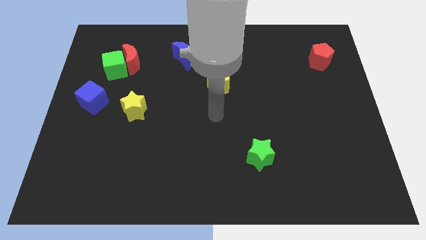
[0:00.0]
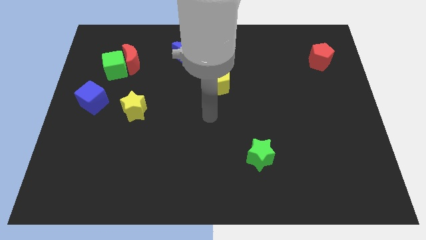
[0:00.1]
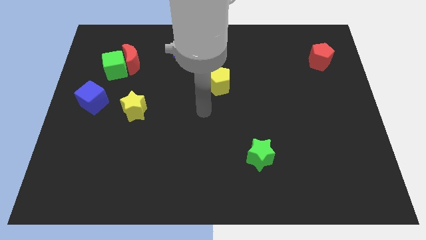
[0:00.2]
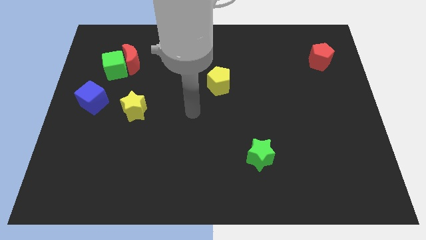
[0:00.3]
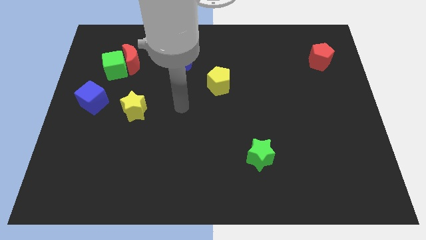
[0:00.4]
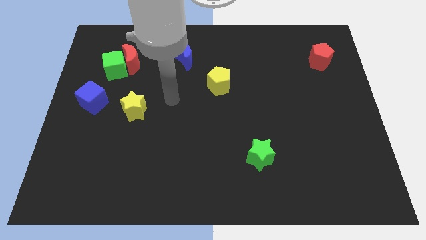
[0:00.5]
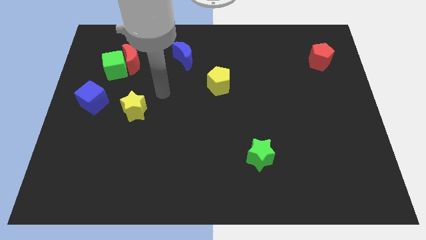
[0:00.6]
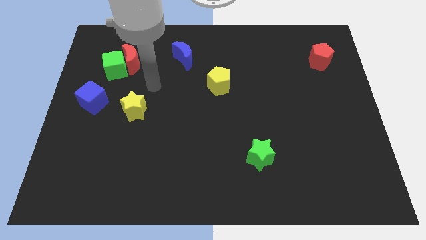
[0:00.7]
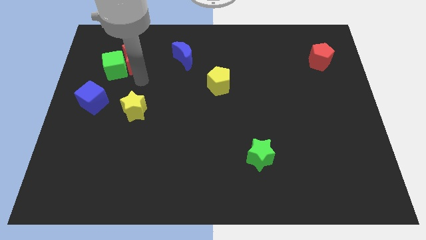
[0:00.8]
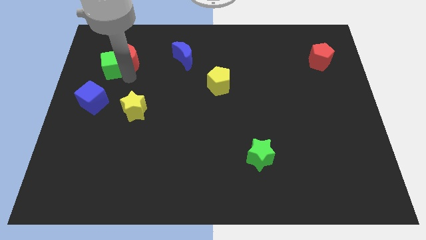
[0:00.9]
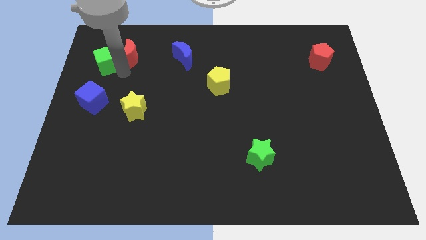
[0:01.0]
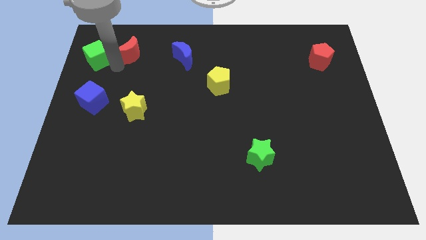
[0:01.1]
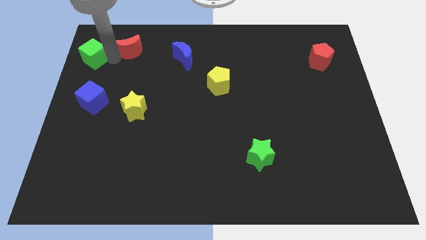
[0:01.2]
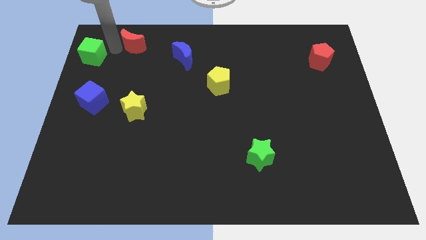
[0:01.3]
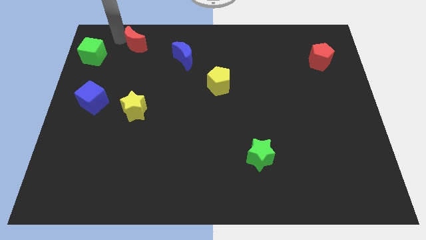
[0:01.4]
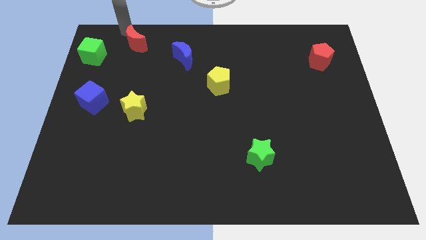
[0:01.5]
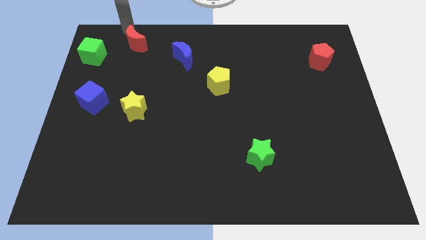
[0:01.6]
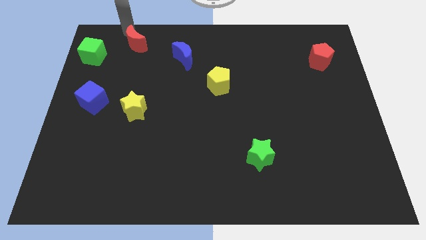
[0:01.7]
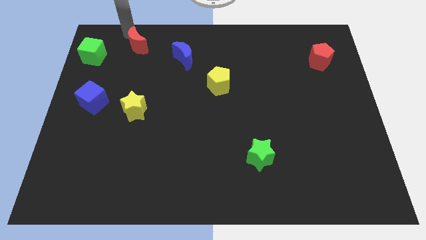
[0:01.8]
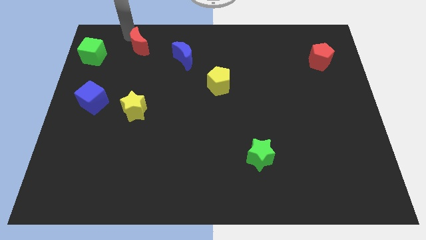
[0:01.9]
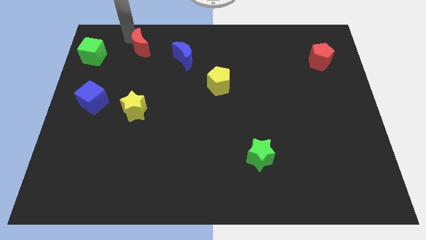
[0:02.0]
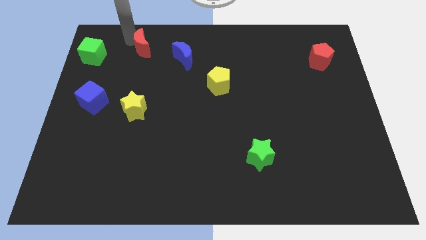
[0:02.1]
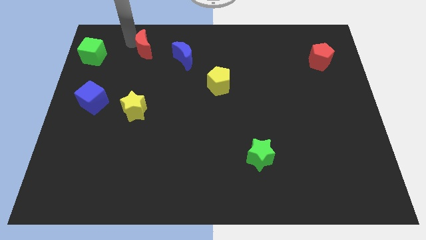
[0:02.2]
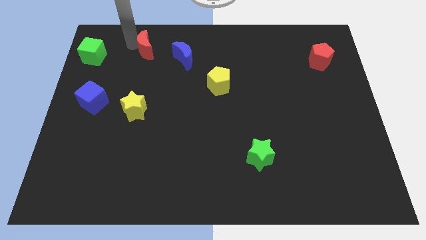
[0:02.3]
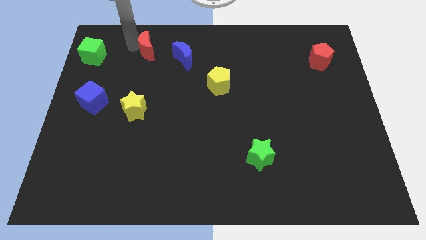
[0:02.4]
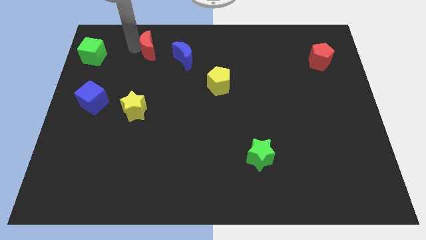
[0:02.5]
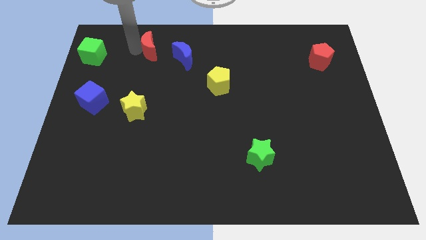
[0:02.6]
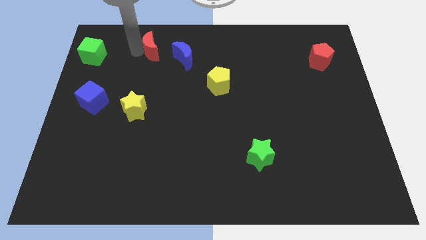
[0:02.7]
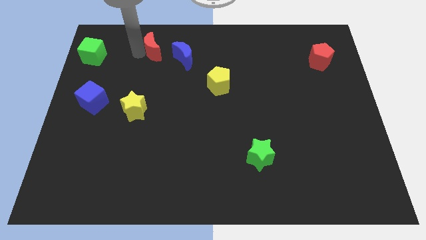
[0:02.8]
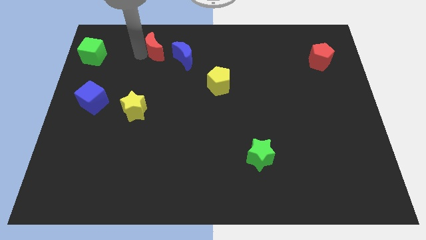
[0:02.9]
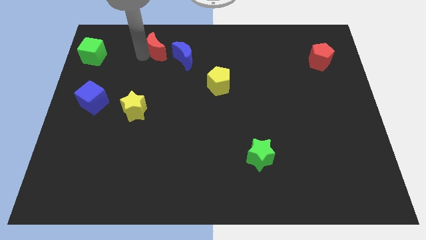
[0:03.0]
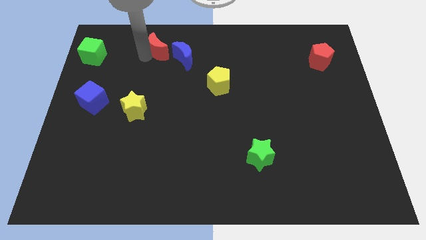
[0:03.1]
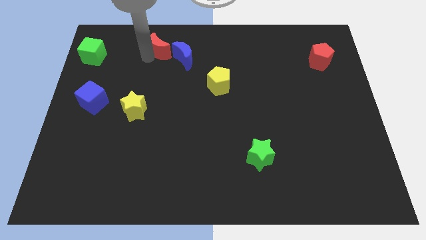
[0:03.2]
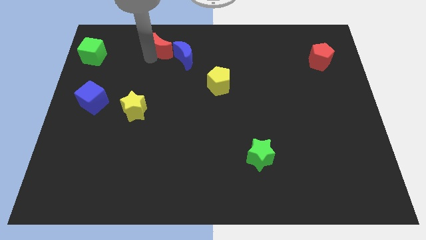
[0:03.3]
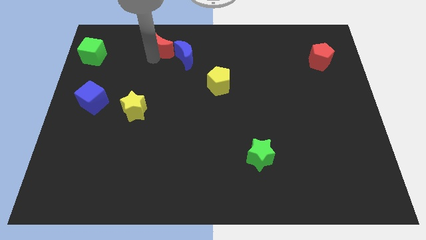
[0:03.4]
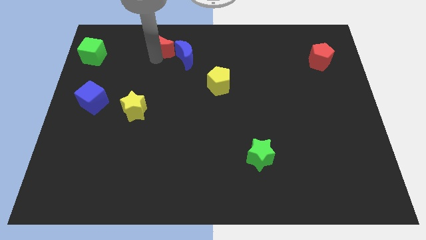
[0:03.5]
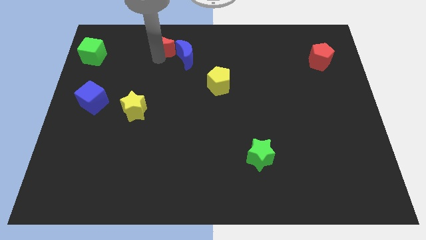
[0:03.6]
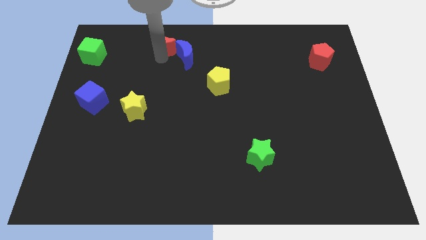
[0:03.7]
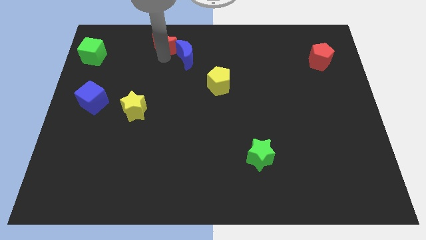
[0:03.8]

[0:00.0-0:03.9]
push the red moon a little bit right

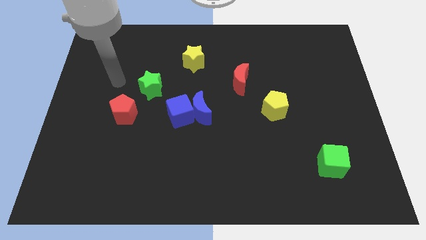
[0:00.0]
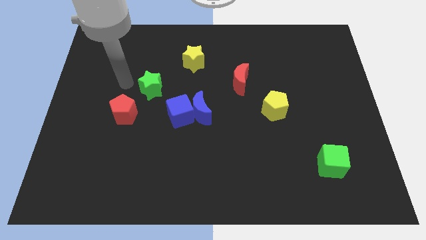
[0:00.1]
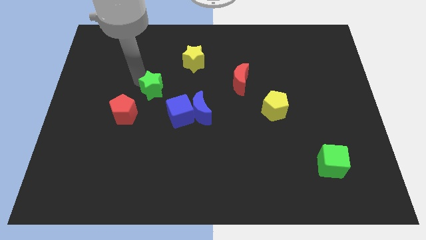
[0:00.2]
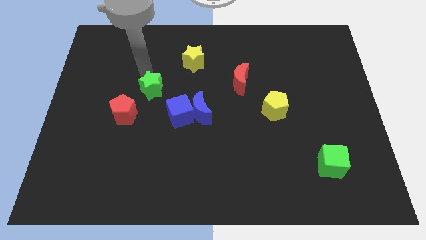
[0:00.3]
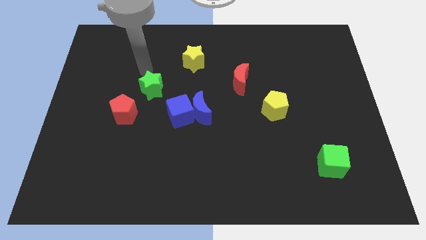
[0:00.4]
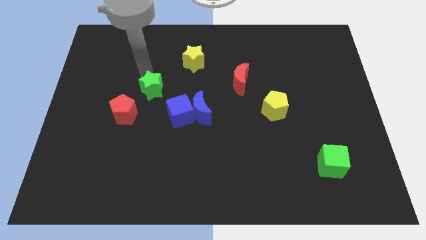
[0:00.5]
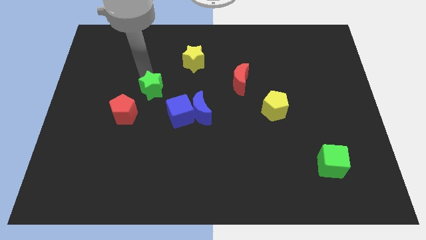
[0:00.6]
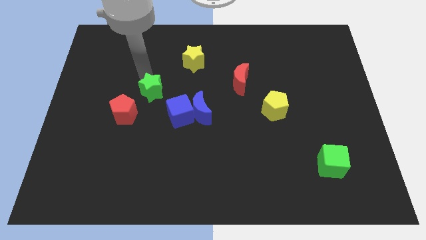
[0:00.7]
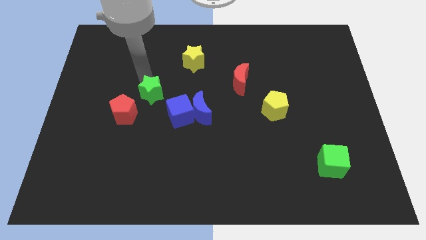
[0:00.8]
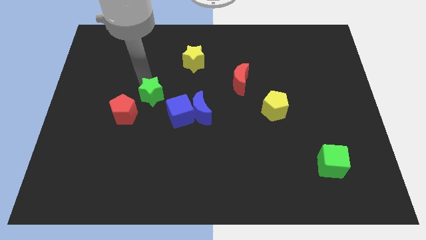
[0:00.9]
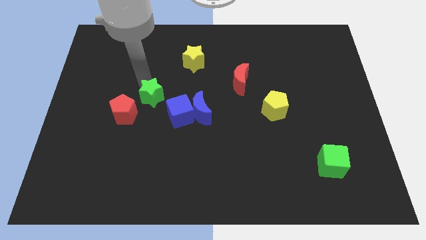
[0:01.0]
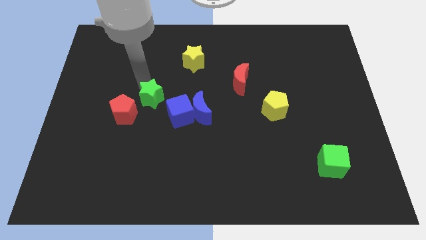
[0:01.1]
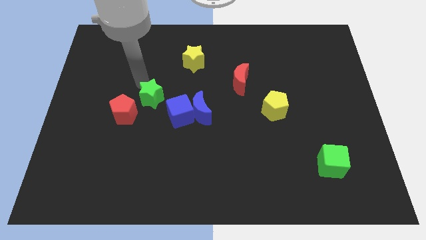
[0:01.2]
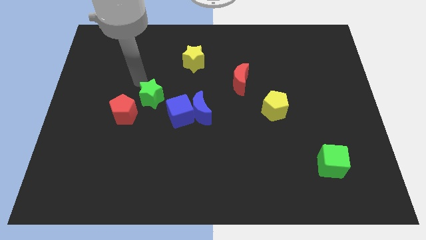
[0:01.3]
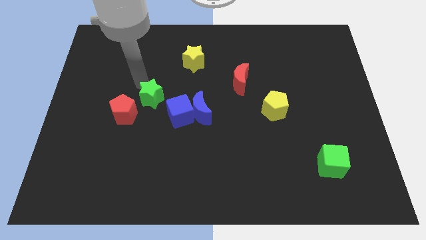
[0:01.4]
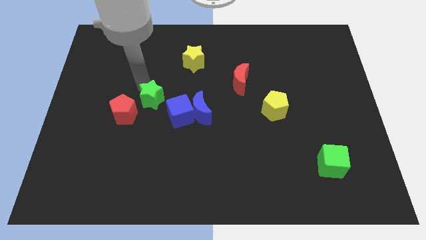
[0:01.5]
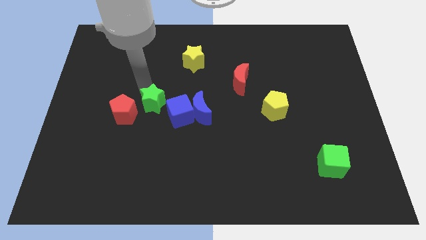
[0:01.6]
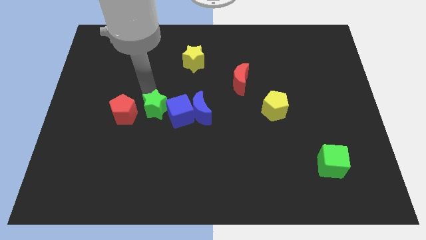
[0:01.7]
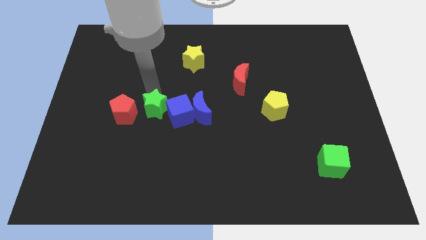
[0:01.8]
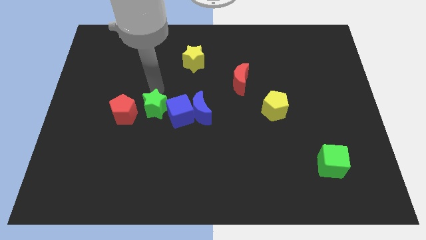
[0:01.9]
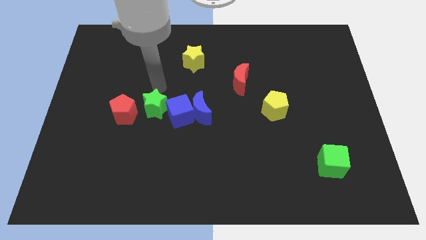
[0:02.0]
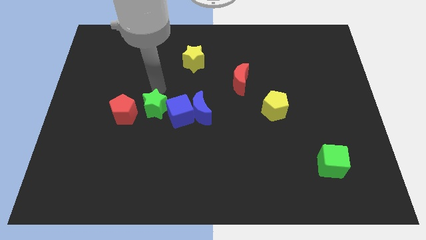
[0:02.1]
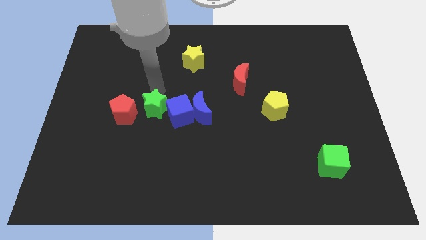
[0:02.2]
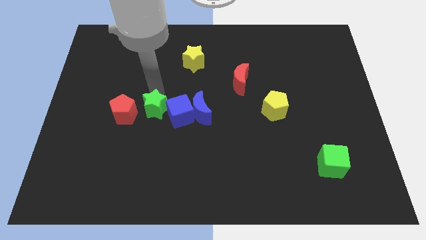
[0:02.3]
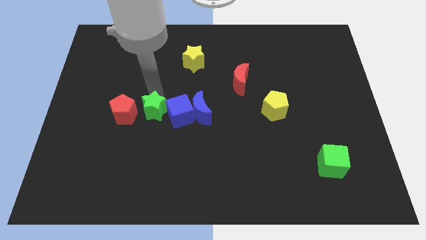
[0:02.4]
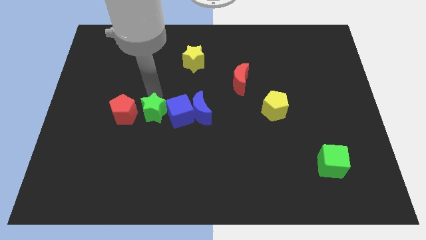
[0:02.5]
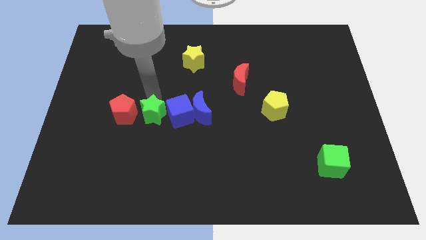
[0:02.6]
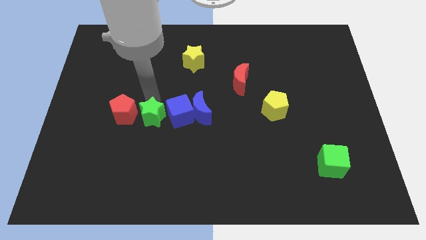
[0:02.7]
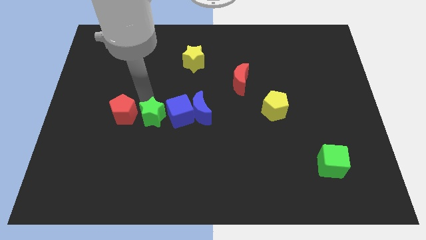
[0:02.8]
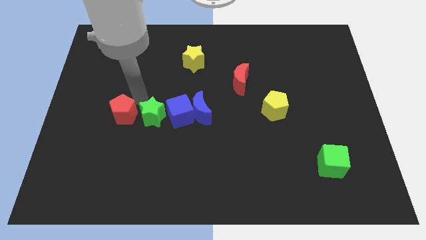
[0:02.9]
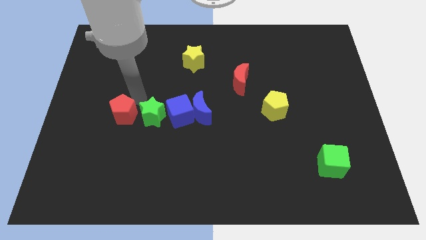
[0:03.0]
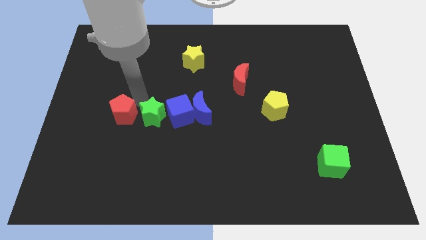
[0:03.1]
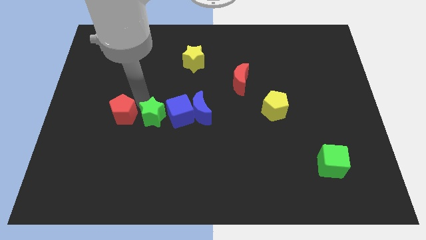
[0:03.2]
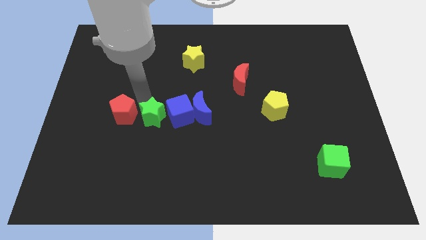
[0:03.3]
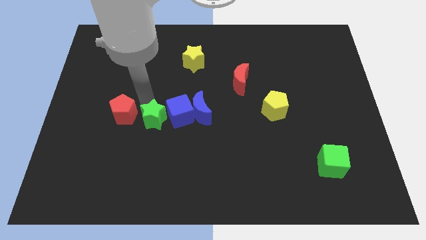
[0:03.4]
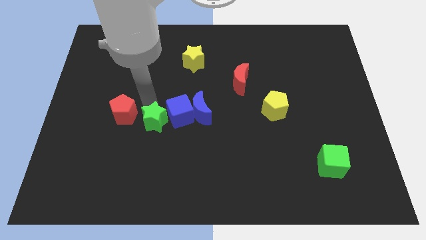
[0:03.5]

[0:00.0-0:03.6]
push the green star downwards and then to the right somewhat

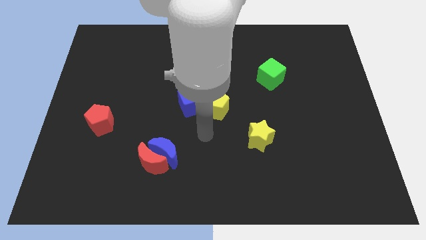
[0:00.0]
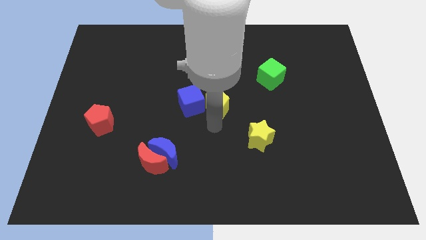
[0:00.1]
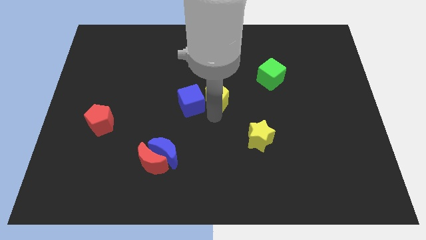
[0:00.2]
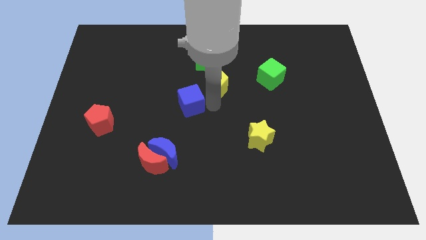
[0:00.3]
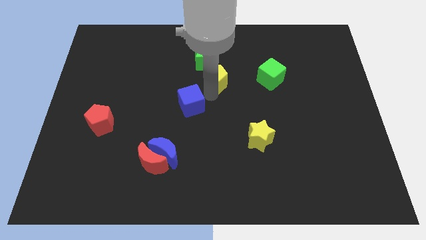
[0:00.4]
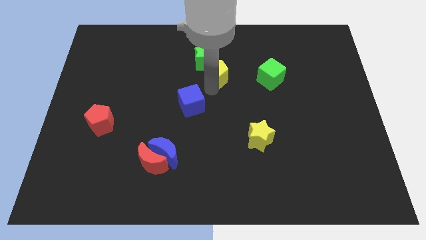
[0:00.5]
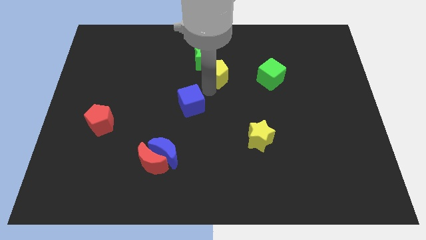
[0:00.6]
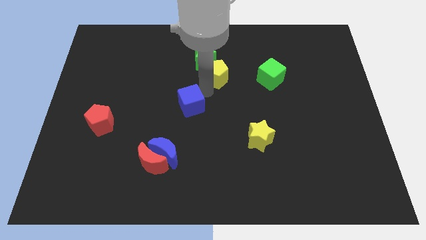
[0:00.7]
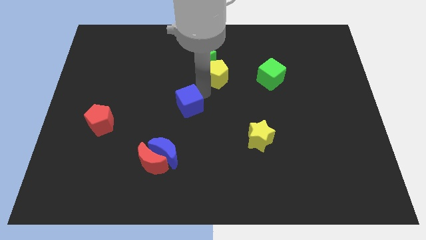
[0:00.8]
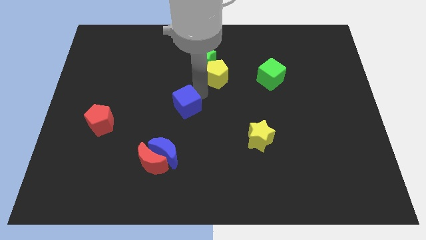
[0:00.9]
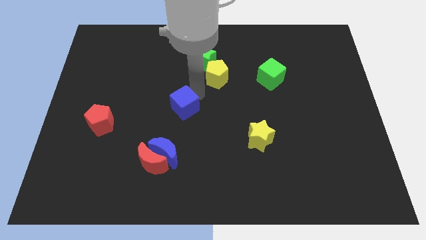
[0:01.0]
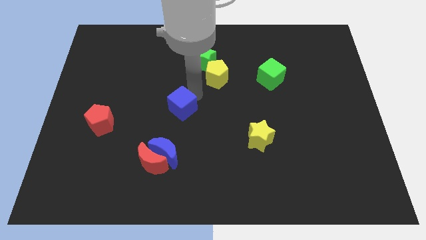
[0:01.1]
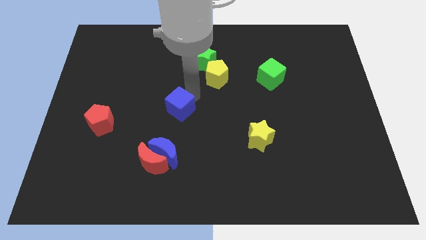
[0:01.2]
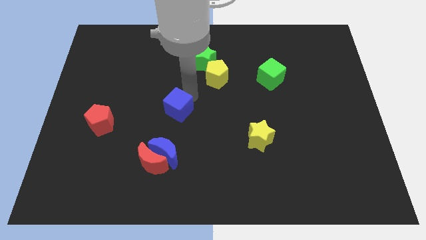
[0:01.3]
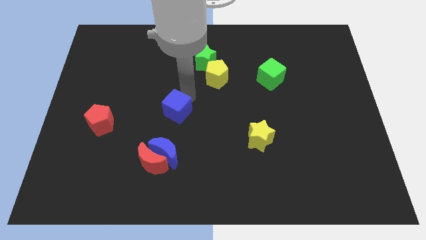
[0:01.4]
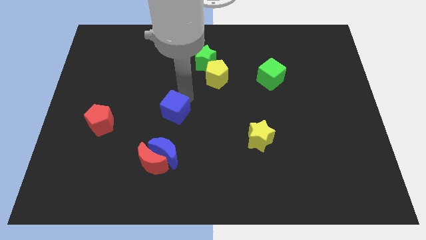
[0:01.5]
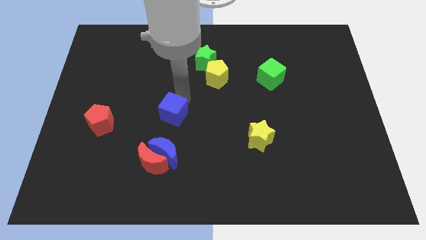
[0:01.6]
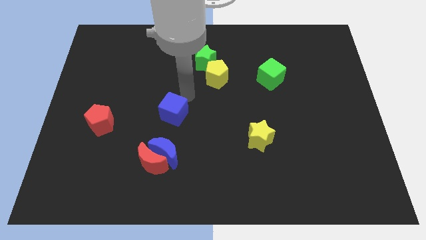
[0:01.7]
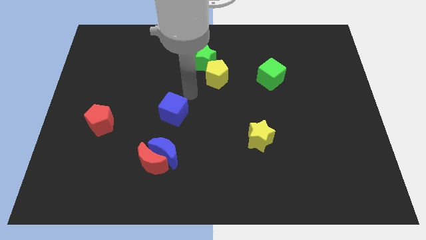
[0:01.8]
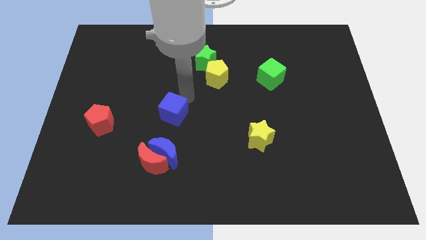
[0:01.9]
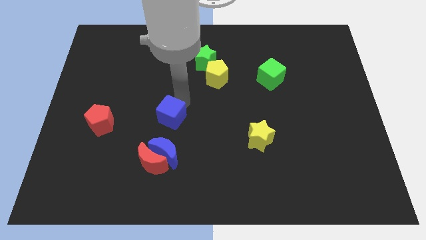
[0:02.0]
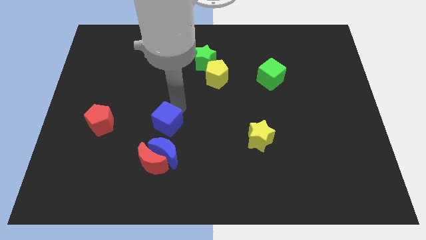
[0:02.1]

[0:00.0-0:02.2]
push the blue cube diagonally down and left somewhat
